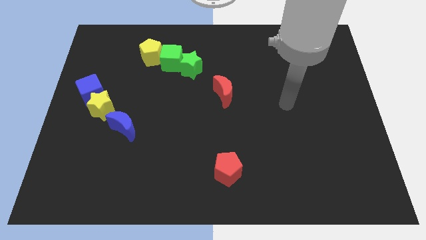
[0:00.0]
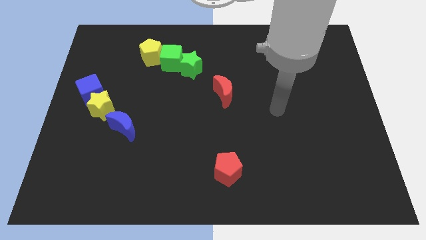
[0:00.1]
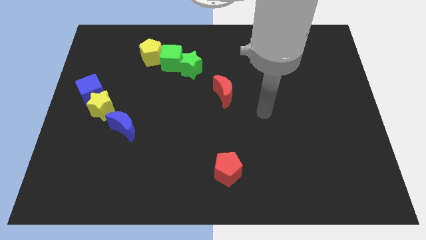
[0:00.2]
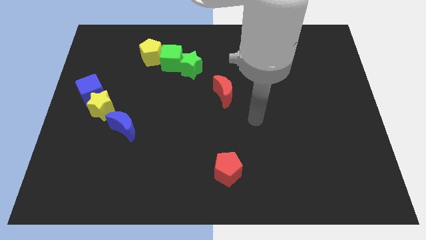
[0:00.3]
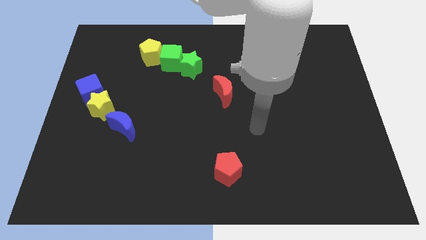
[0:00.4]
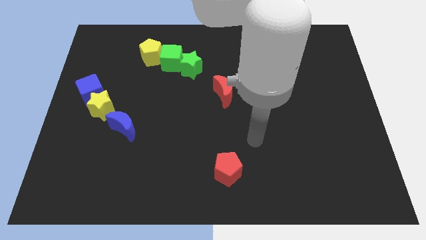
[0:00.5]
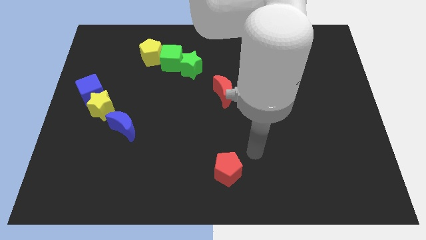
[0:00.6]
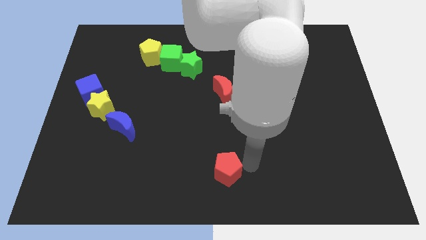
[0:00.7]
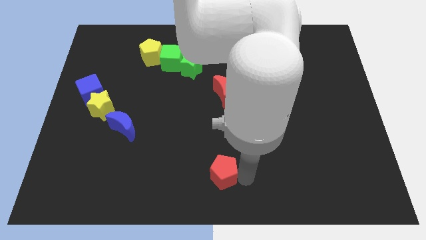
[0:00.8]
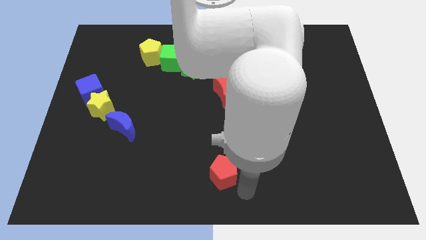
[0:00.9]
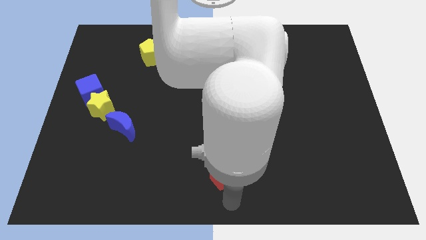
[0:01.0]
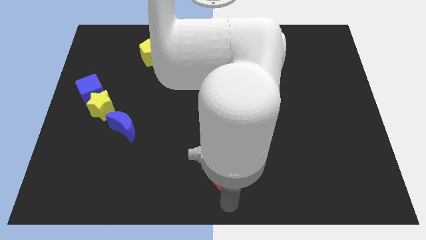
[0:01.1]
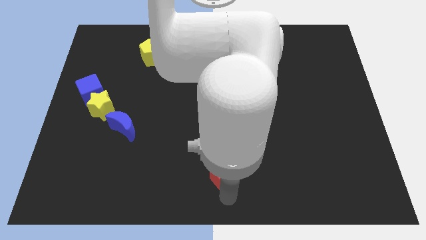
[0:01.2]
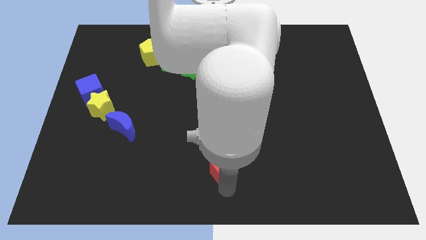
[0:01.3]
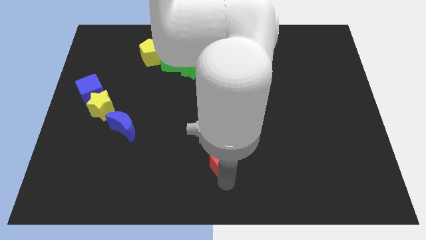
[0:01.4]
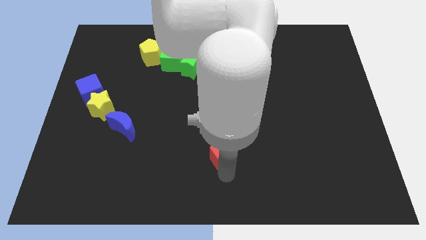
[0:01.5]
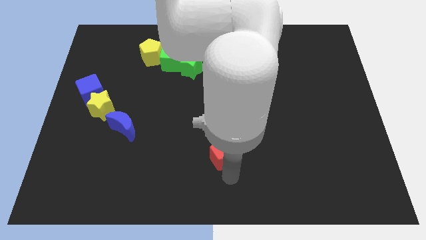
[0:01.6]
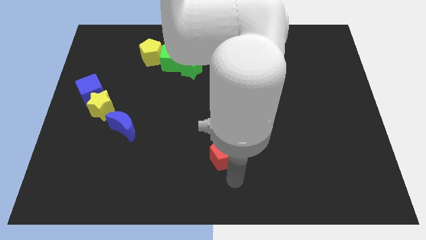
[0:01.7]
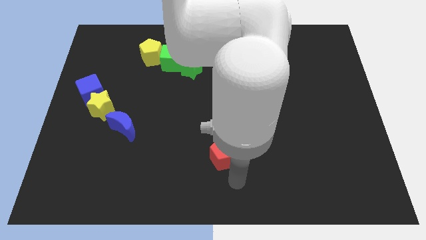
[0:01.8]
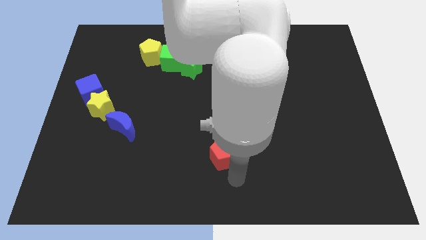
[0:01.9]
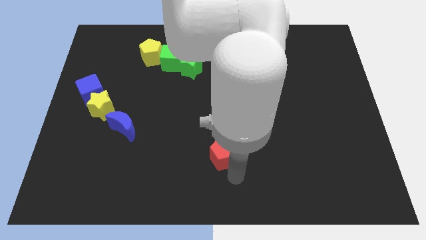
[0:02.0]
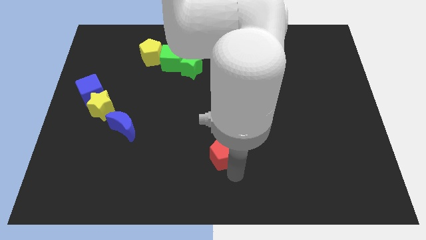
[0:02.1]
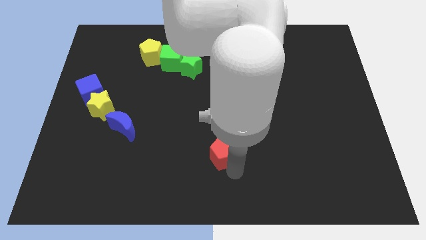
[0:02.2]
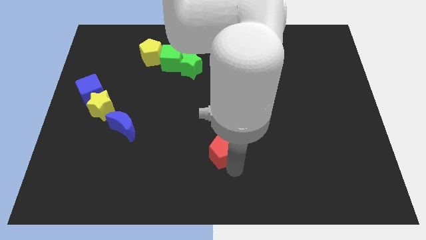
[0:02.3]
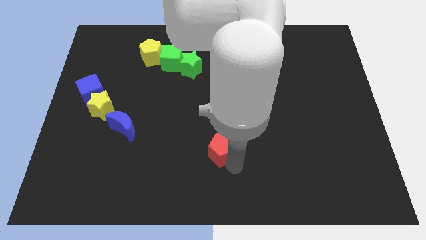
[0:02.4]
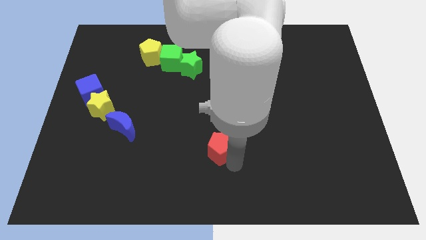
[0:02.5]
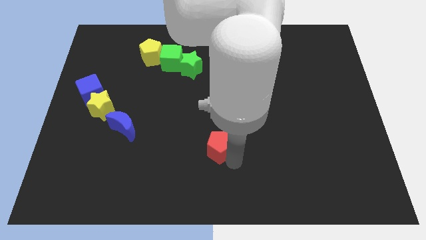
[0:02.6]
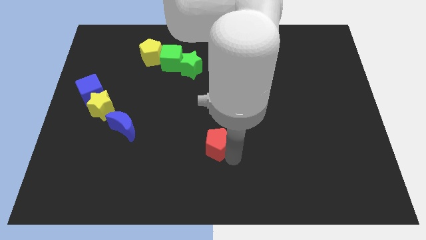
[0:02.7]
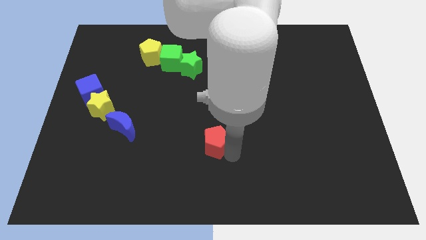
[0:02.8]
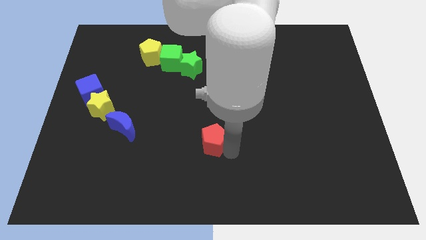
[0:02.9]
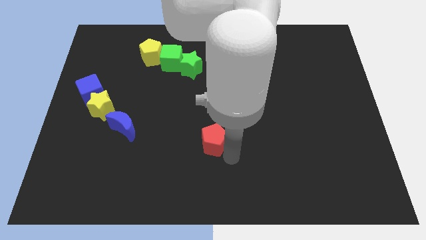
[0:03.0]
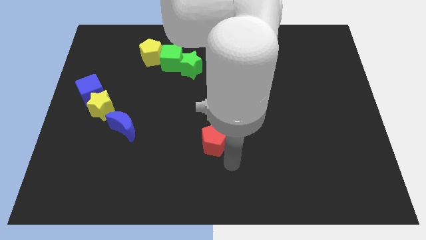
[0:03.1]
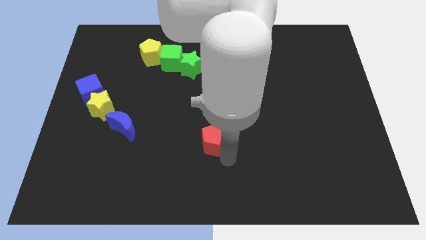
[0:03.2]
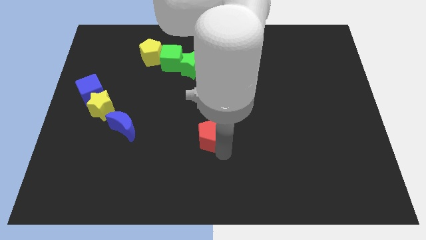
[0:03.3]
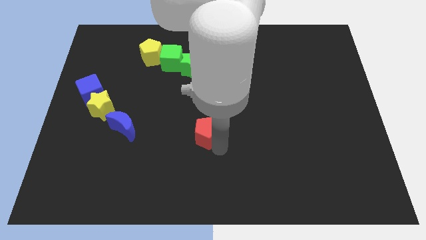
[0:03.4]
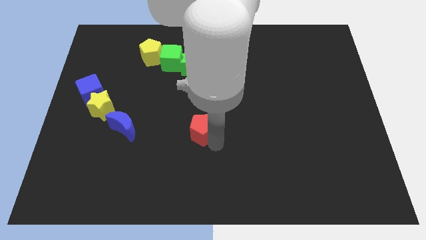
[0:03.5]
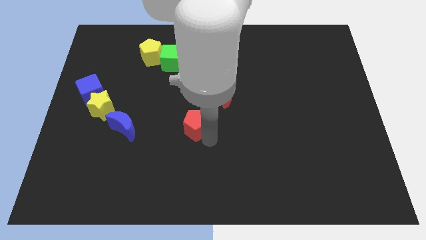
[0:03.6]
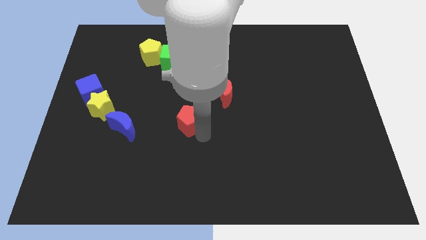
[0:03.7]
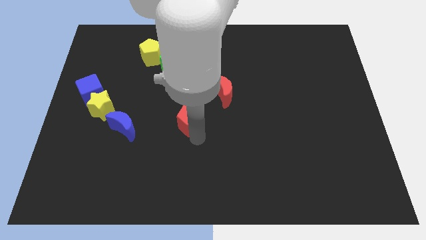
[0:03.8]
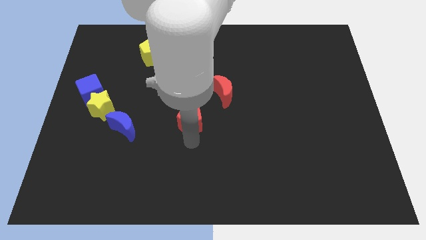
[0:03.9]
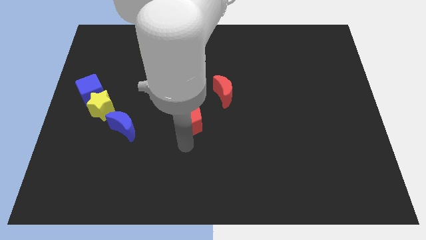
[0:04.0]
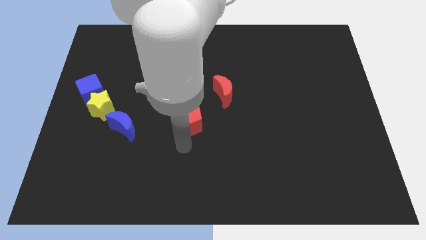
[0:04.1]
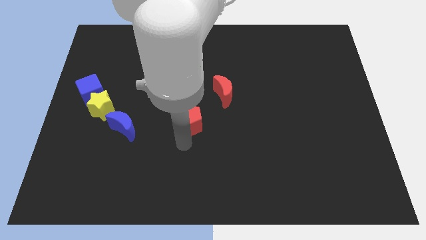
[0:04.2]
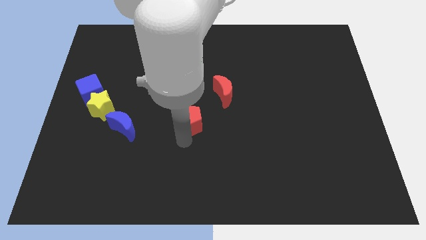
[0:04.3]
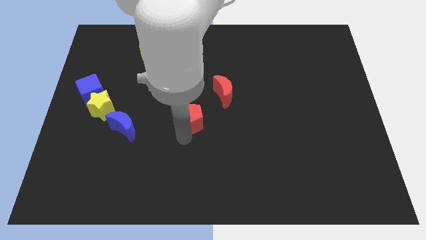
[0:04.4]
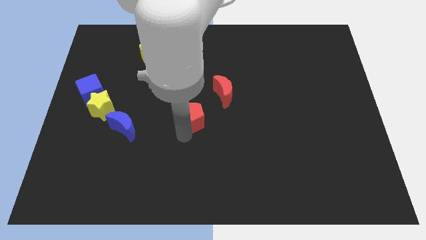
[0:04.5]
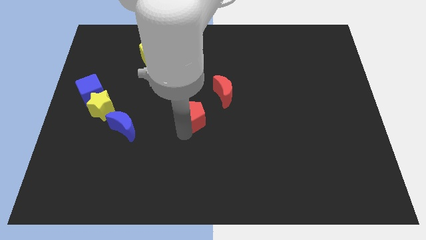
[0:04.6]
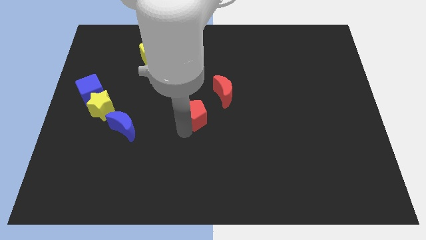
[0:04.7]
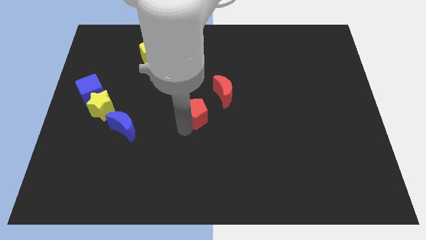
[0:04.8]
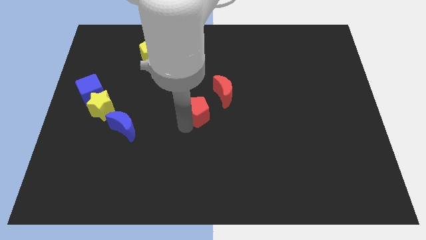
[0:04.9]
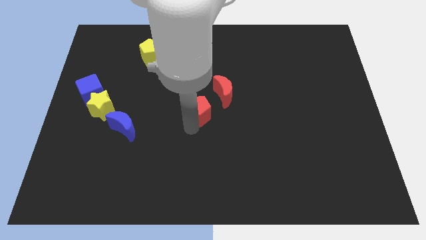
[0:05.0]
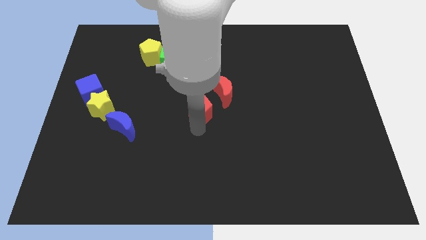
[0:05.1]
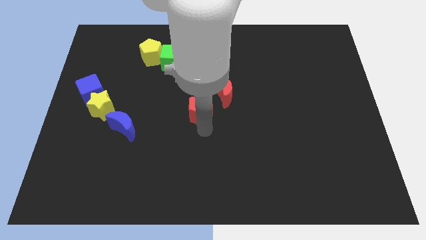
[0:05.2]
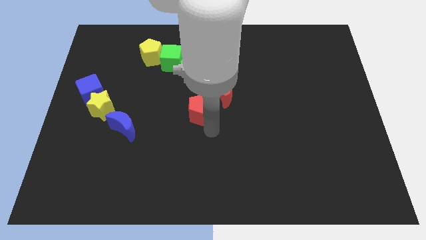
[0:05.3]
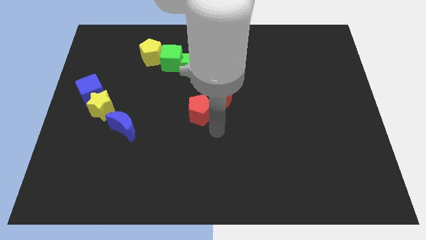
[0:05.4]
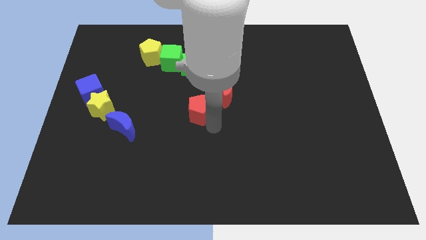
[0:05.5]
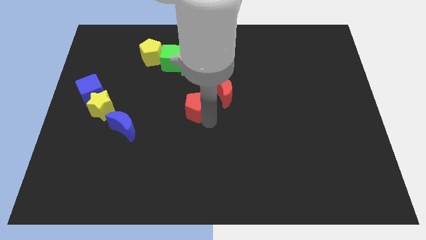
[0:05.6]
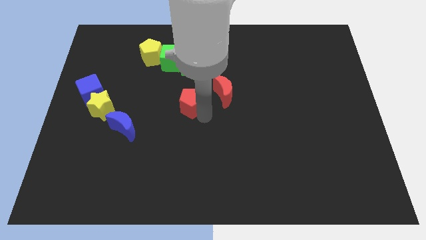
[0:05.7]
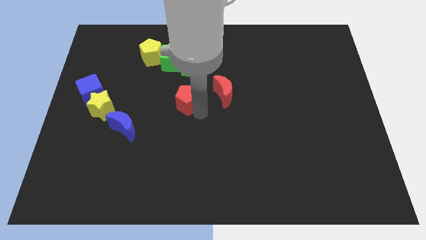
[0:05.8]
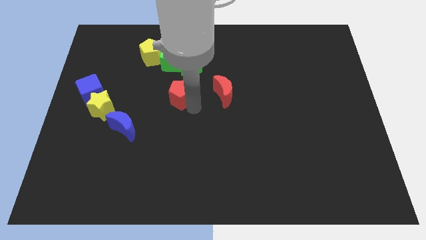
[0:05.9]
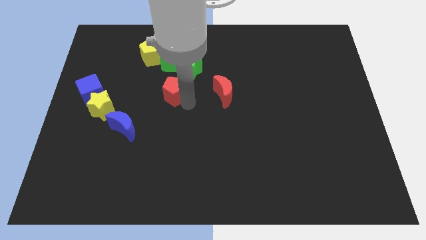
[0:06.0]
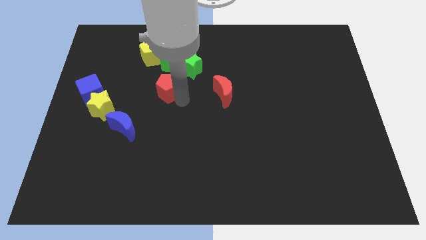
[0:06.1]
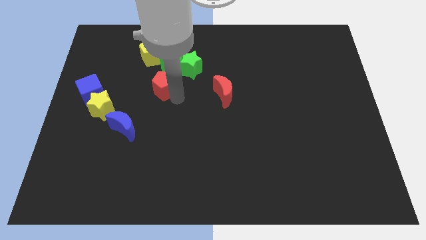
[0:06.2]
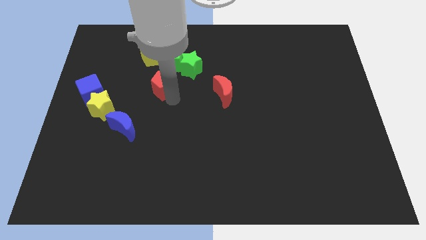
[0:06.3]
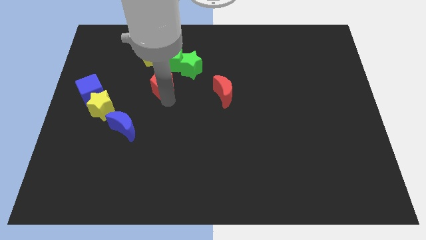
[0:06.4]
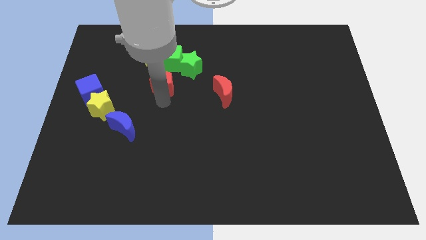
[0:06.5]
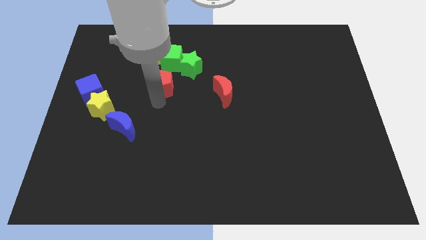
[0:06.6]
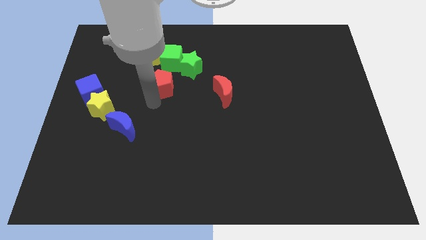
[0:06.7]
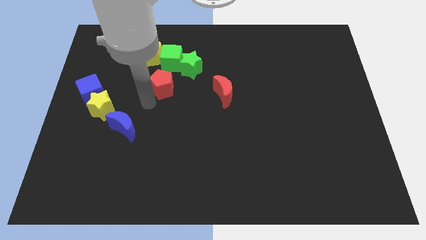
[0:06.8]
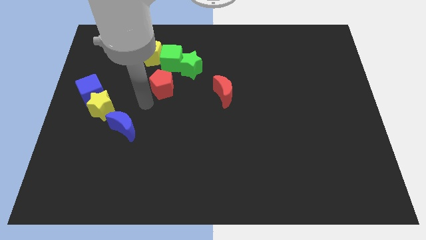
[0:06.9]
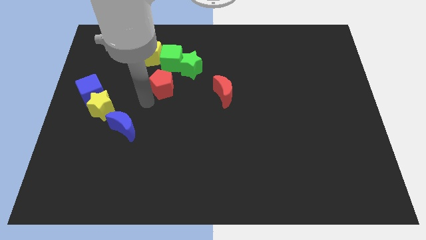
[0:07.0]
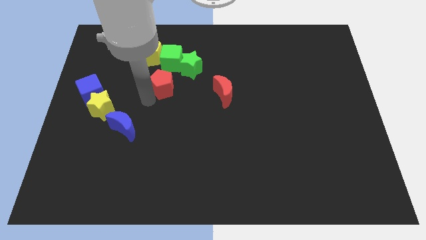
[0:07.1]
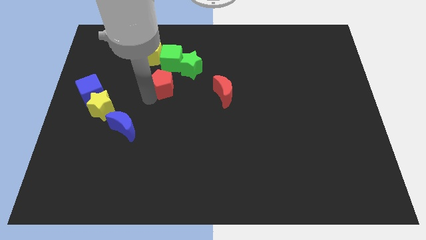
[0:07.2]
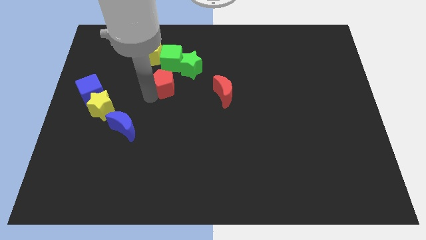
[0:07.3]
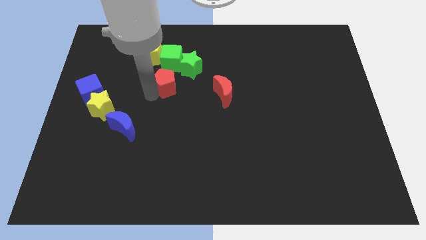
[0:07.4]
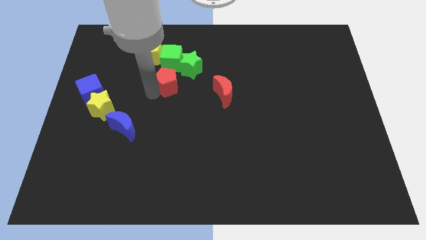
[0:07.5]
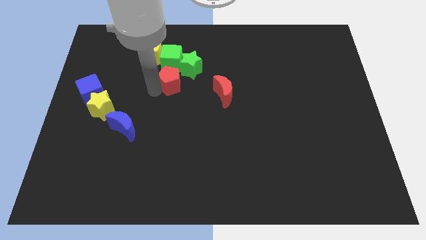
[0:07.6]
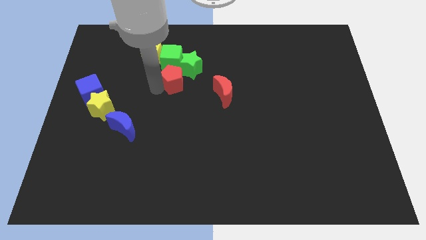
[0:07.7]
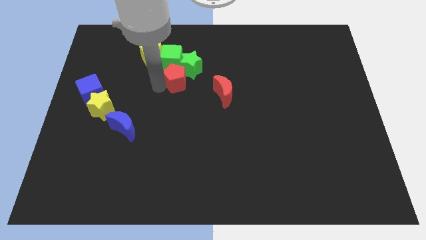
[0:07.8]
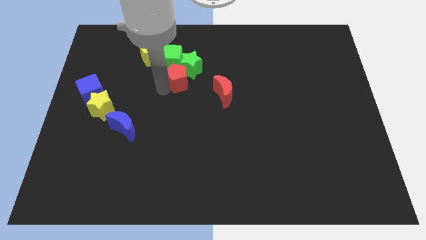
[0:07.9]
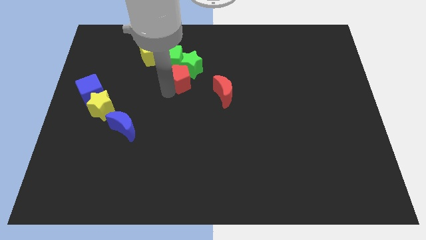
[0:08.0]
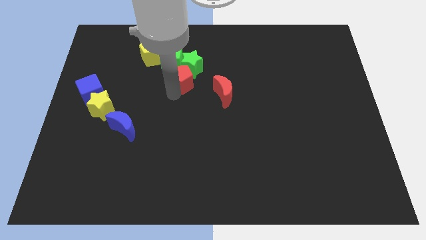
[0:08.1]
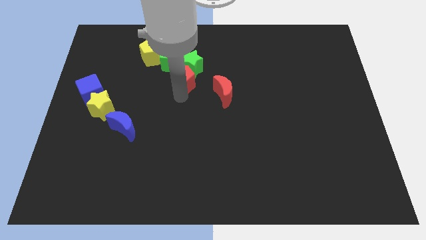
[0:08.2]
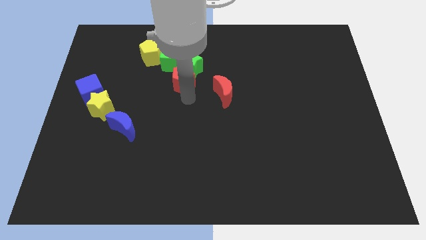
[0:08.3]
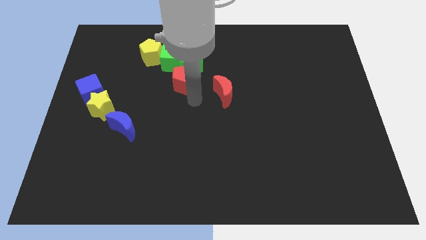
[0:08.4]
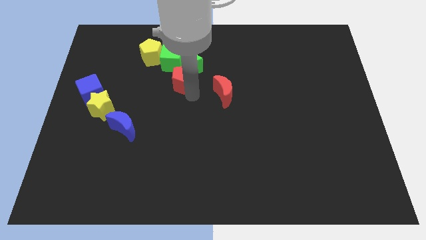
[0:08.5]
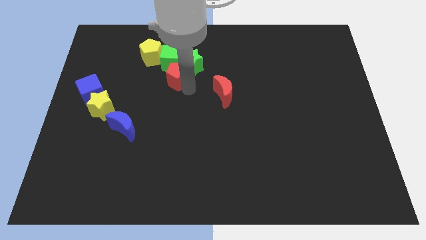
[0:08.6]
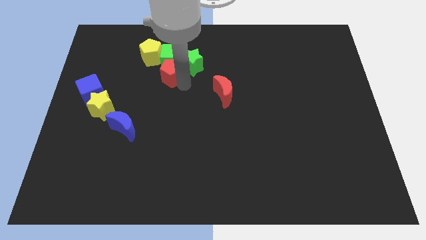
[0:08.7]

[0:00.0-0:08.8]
slide the red pentagon to the green cube
